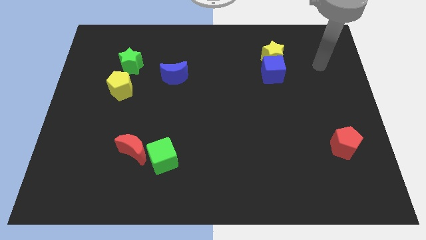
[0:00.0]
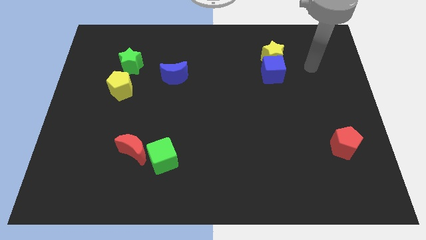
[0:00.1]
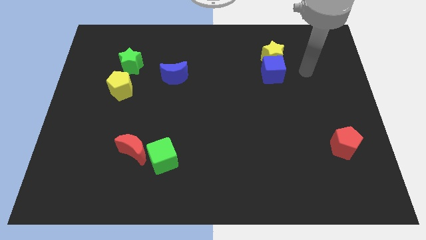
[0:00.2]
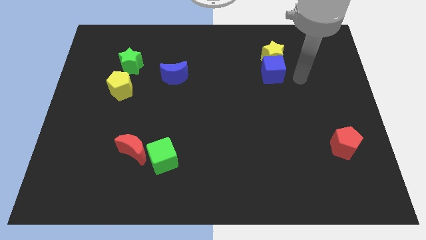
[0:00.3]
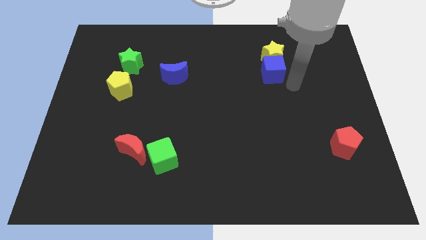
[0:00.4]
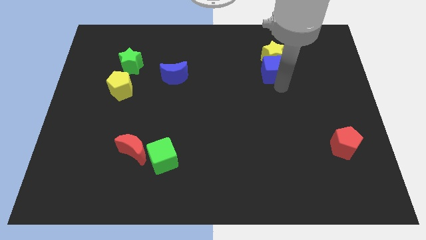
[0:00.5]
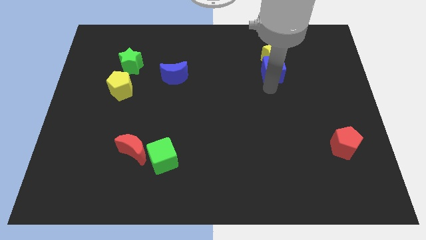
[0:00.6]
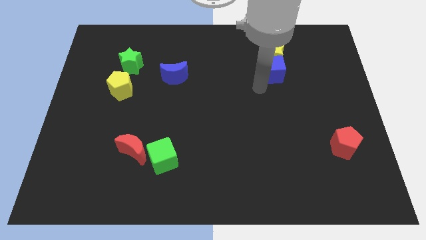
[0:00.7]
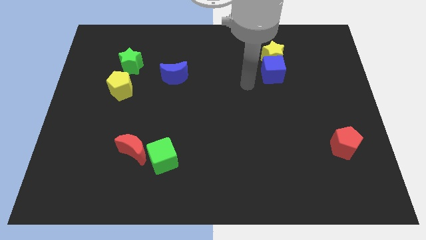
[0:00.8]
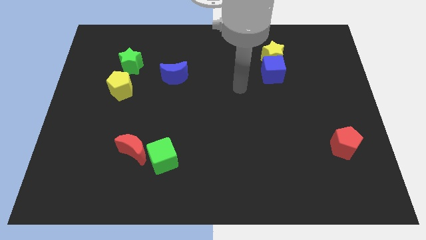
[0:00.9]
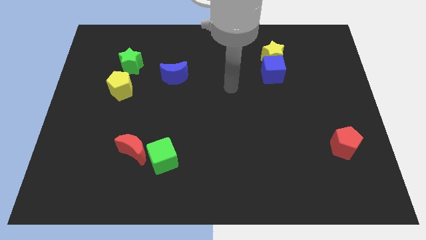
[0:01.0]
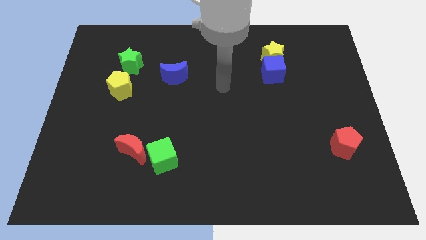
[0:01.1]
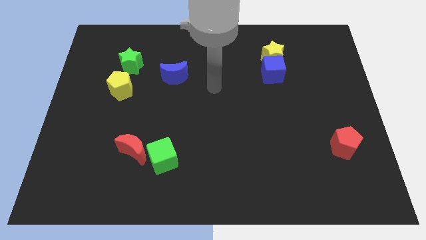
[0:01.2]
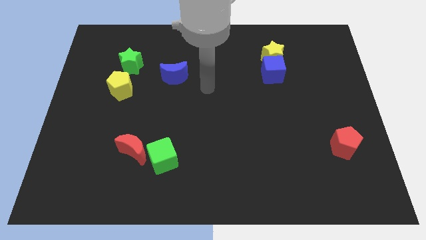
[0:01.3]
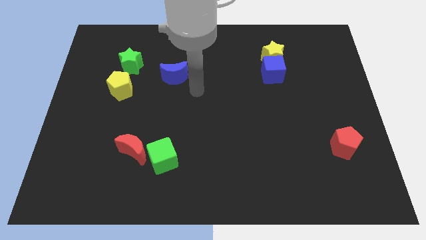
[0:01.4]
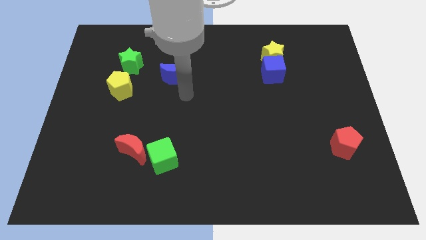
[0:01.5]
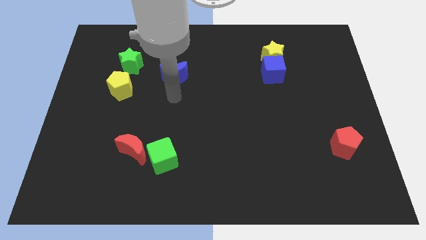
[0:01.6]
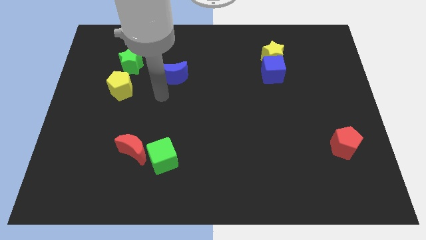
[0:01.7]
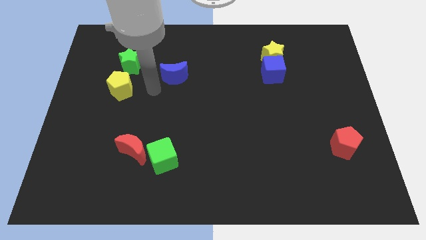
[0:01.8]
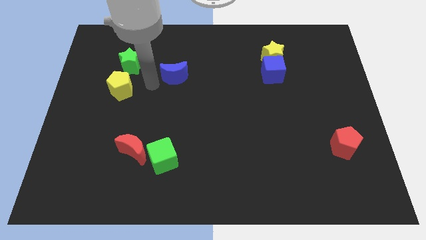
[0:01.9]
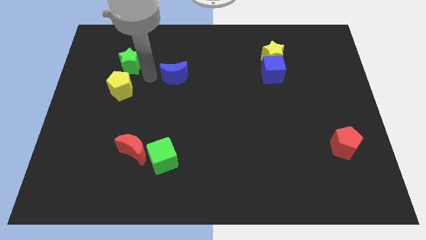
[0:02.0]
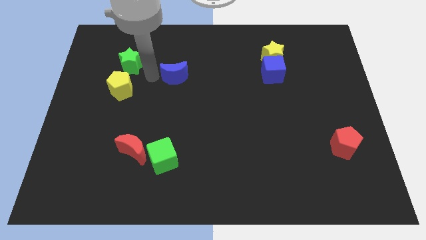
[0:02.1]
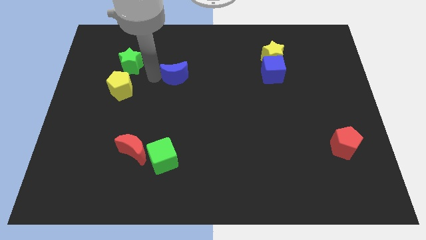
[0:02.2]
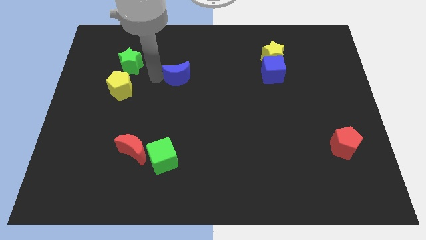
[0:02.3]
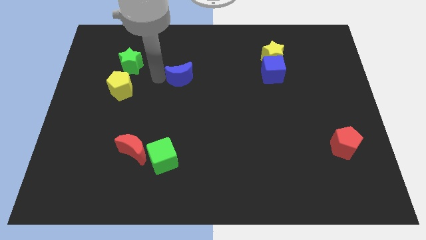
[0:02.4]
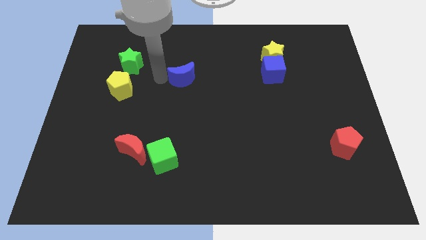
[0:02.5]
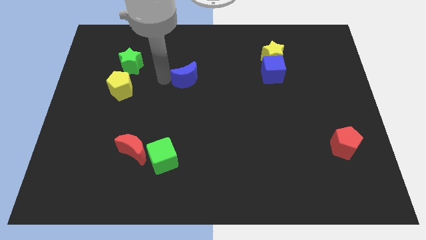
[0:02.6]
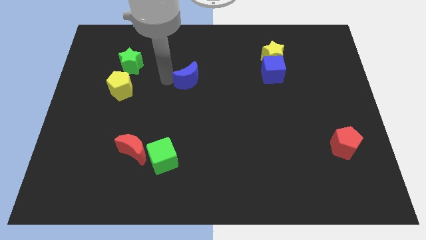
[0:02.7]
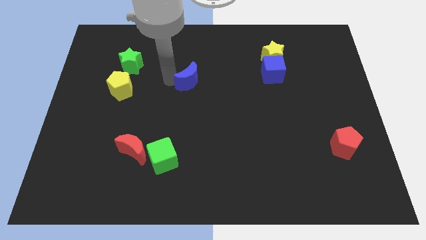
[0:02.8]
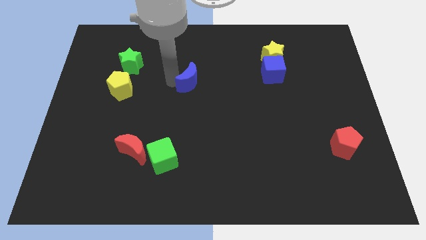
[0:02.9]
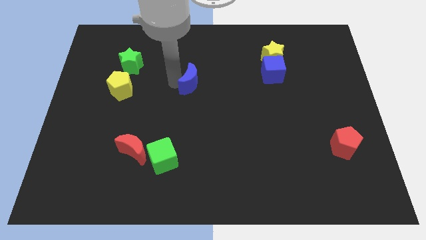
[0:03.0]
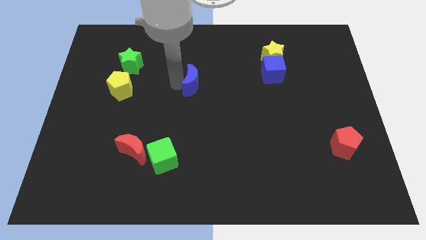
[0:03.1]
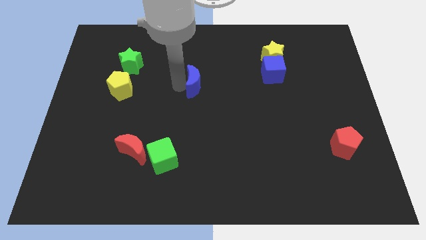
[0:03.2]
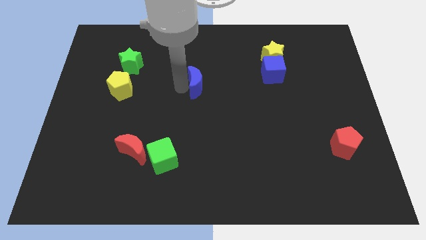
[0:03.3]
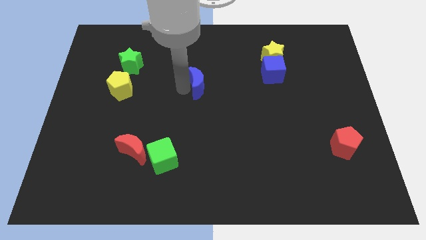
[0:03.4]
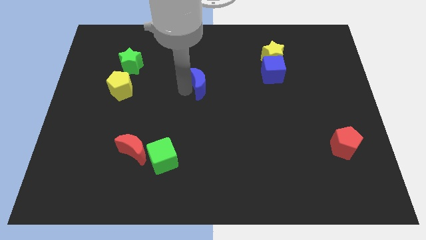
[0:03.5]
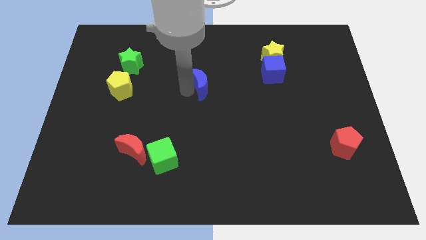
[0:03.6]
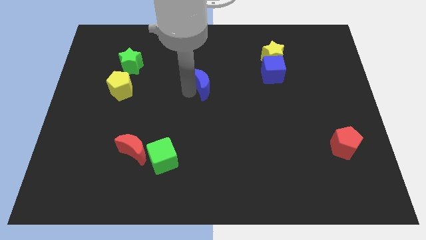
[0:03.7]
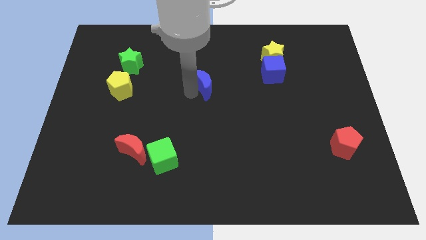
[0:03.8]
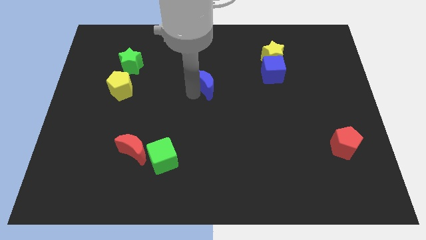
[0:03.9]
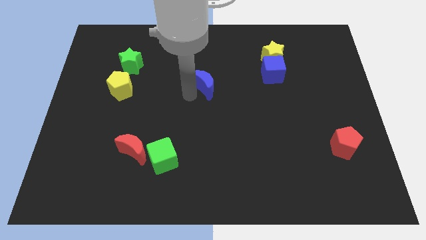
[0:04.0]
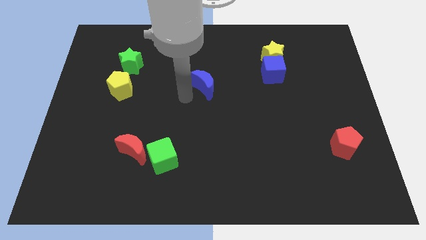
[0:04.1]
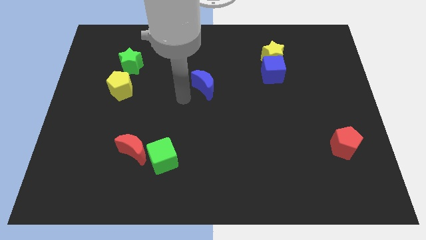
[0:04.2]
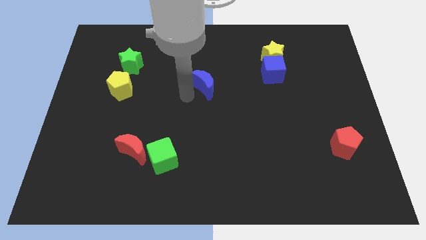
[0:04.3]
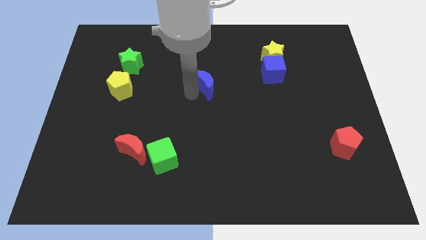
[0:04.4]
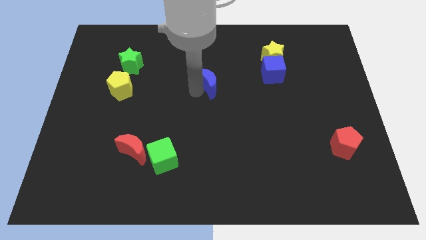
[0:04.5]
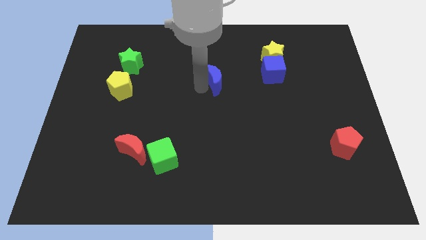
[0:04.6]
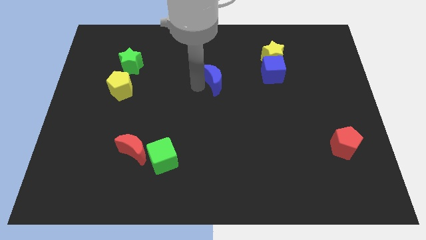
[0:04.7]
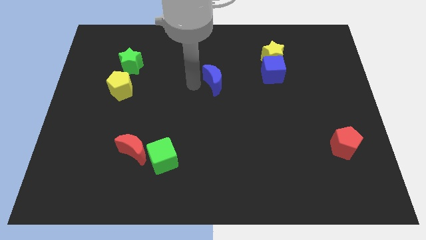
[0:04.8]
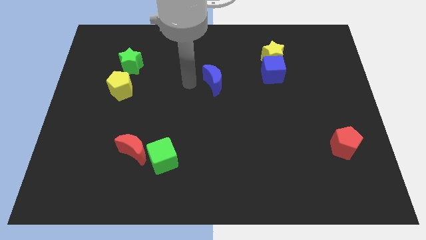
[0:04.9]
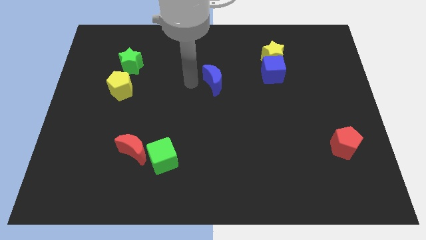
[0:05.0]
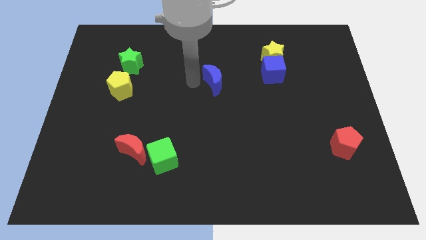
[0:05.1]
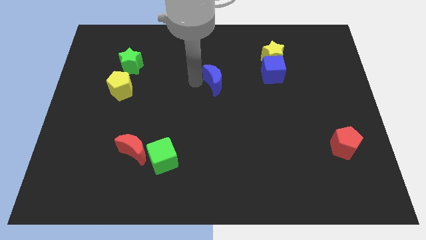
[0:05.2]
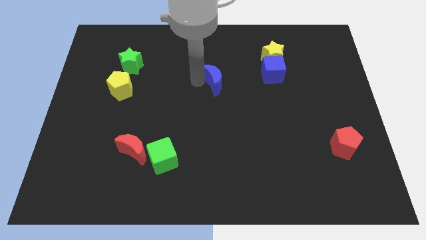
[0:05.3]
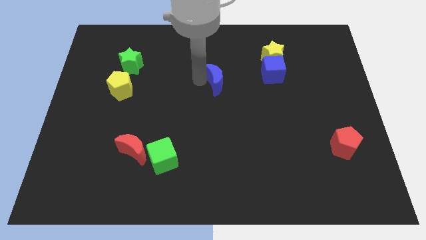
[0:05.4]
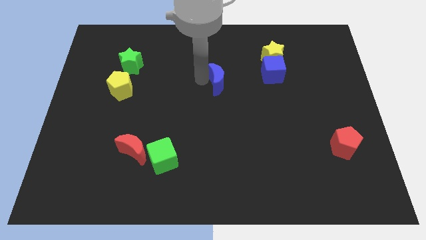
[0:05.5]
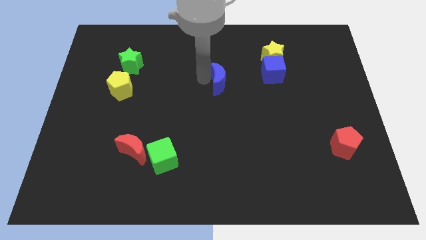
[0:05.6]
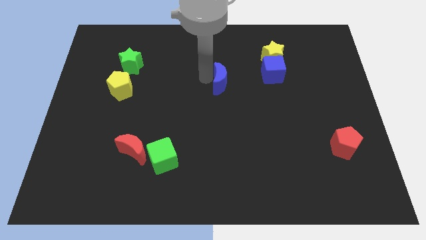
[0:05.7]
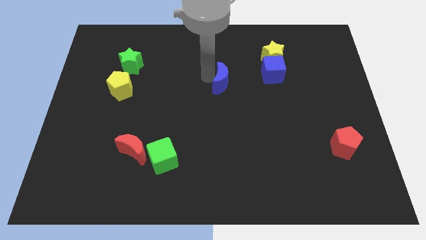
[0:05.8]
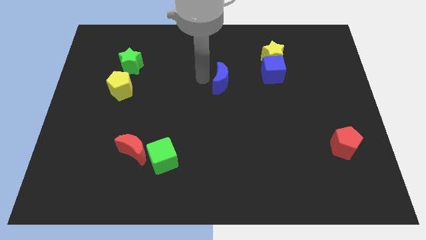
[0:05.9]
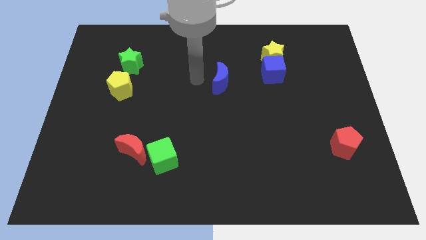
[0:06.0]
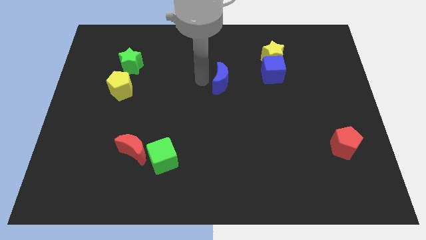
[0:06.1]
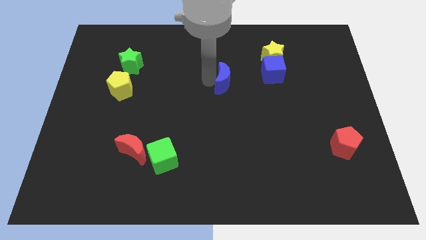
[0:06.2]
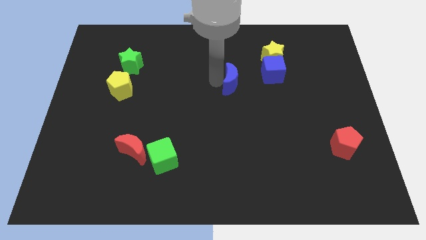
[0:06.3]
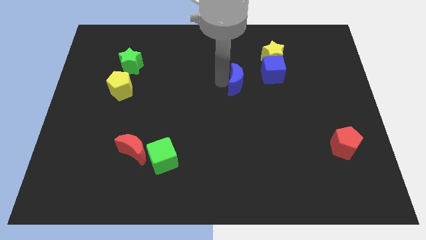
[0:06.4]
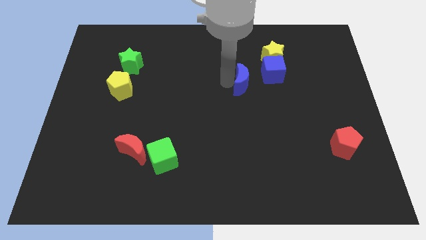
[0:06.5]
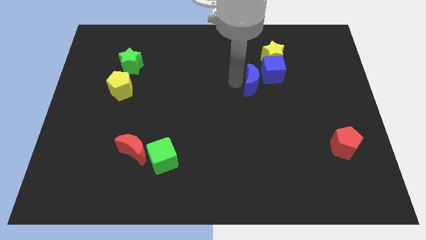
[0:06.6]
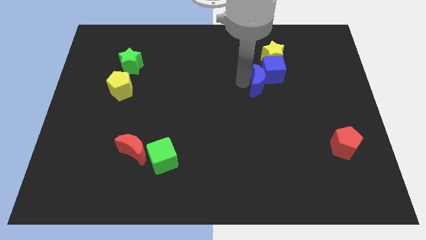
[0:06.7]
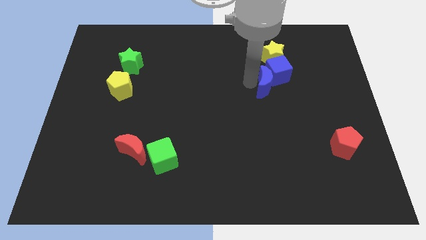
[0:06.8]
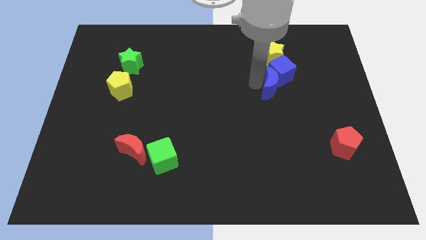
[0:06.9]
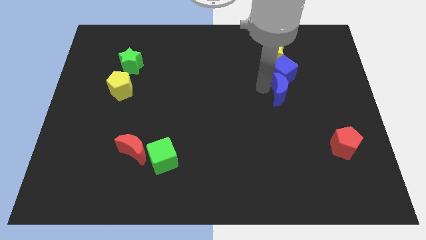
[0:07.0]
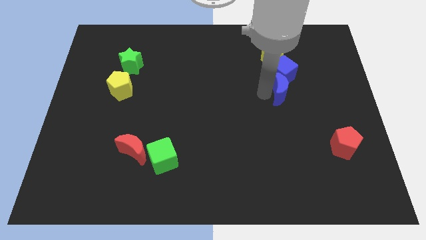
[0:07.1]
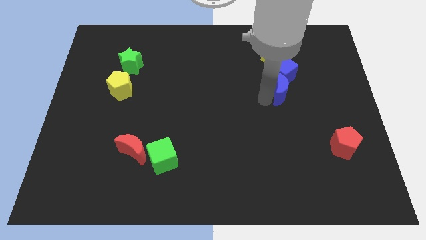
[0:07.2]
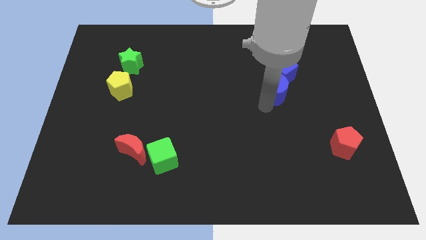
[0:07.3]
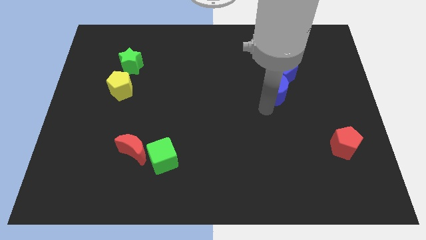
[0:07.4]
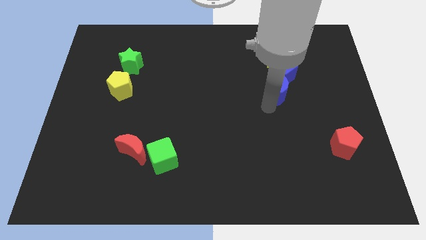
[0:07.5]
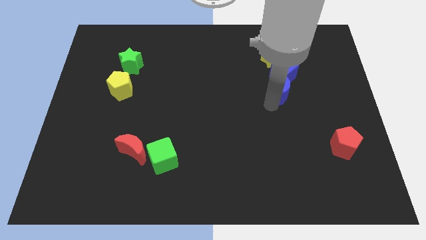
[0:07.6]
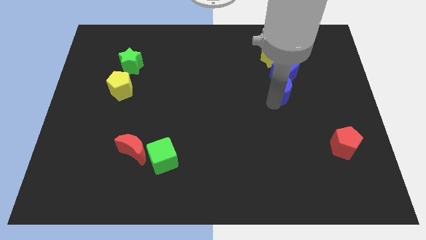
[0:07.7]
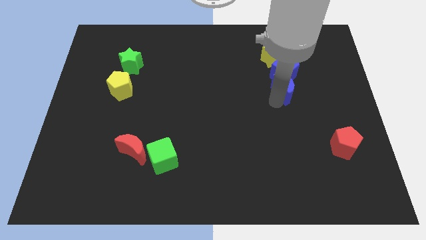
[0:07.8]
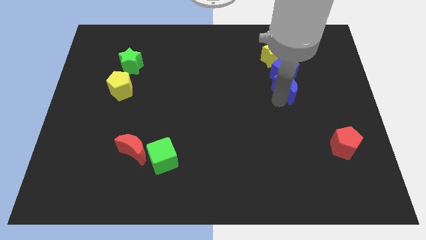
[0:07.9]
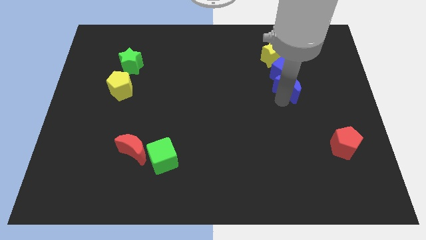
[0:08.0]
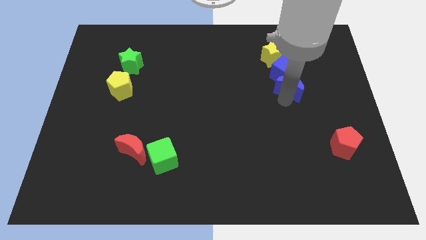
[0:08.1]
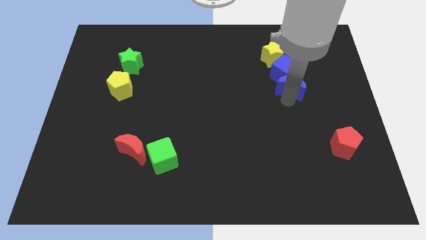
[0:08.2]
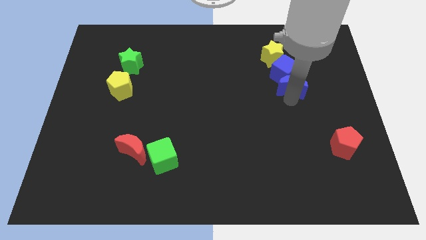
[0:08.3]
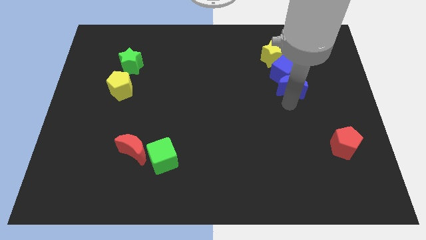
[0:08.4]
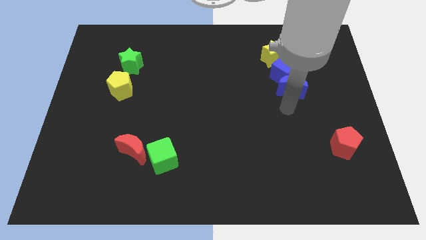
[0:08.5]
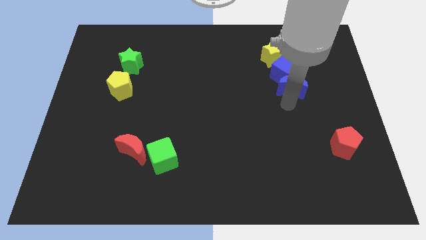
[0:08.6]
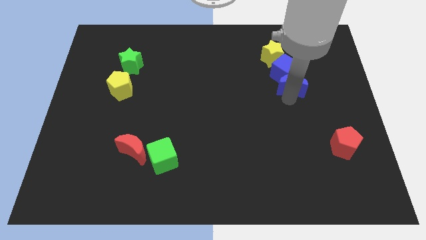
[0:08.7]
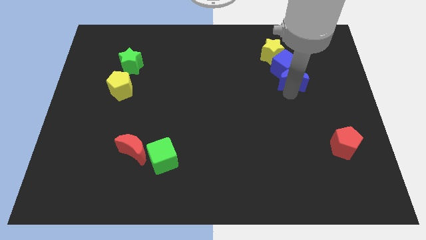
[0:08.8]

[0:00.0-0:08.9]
move the blue moon diagonally down and to the right of the yellow star
